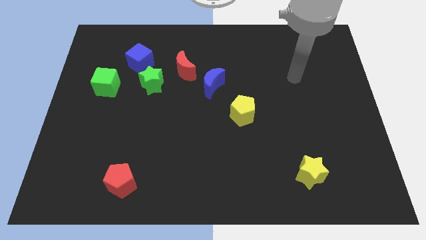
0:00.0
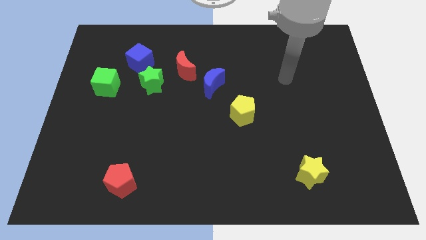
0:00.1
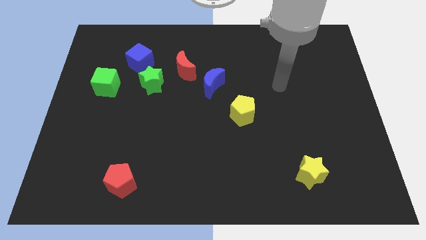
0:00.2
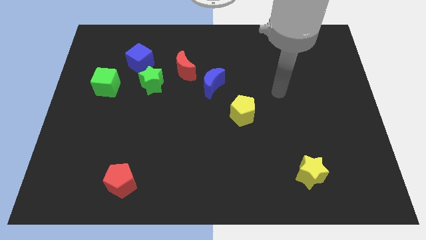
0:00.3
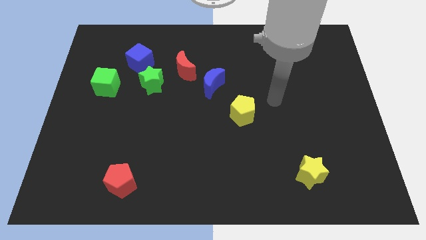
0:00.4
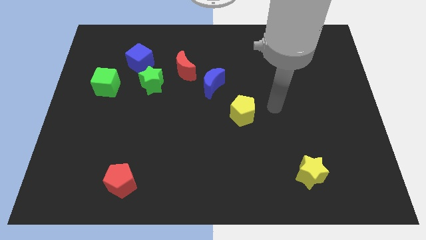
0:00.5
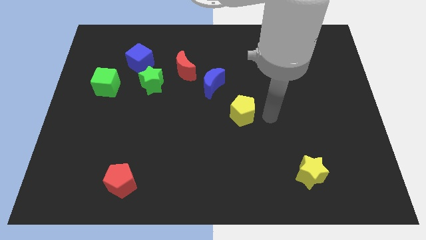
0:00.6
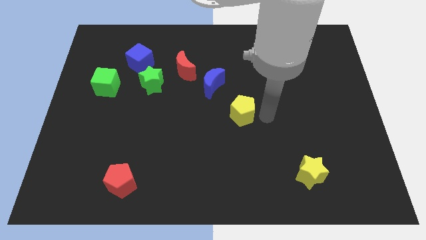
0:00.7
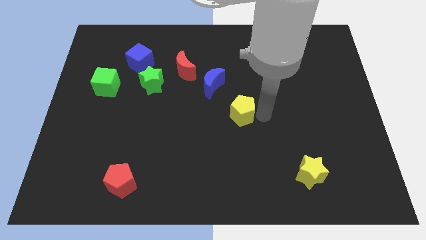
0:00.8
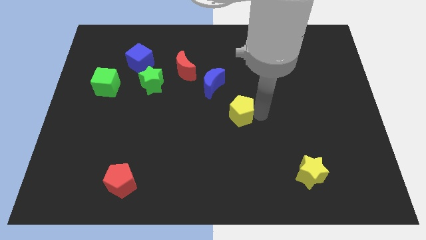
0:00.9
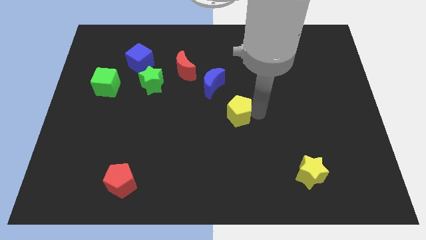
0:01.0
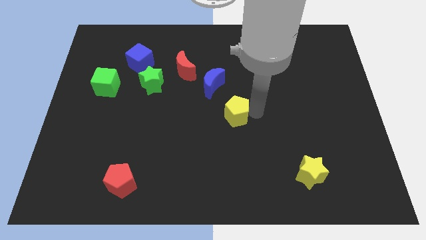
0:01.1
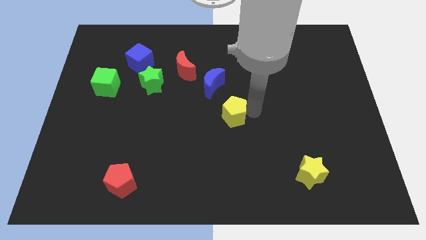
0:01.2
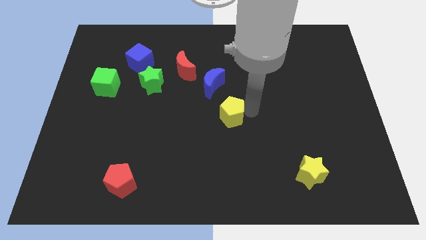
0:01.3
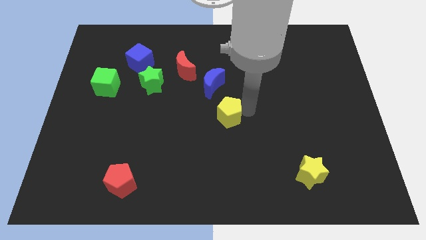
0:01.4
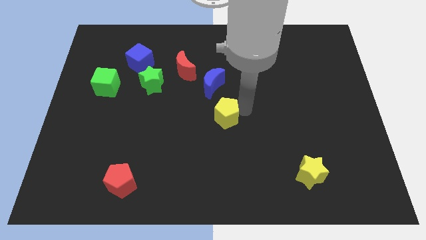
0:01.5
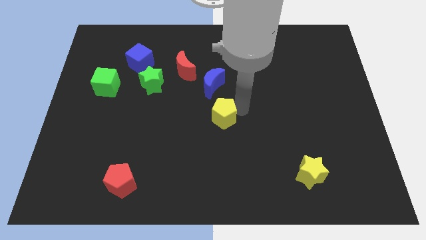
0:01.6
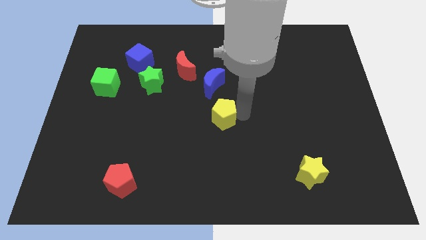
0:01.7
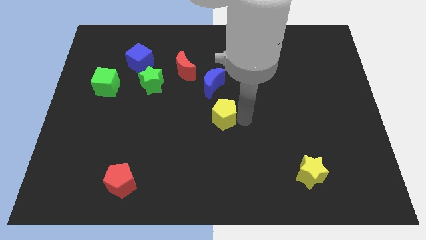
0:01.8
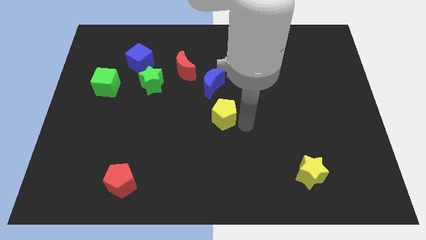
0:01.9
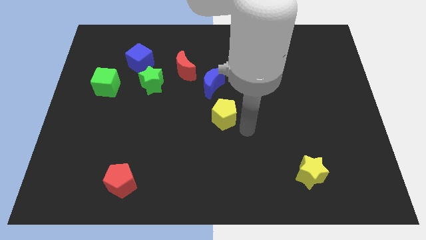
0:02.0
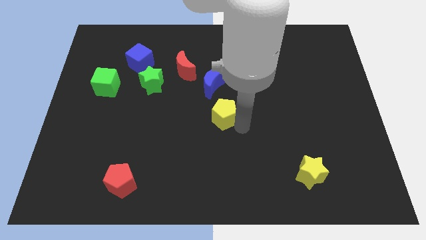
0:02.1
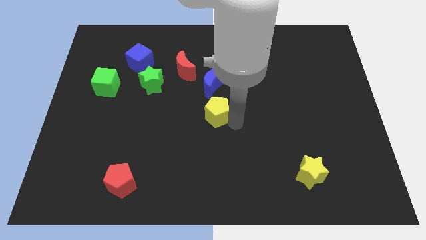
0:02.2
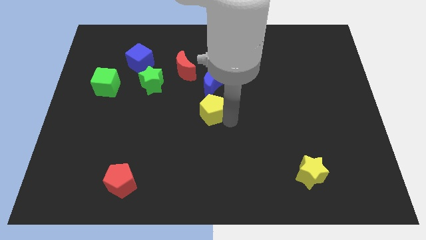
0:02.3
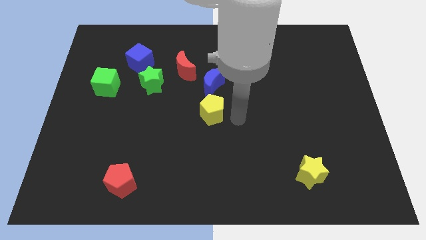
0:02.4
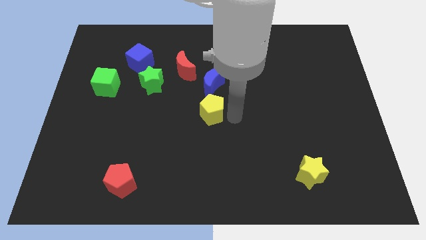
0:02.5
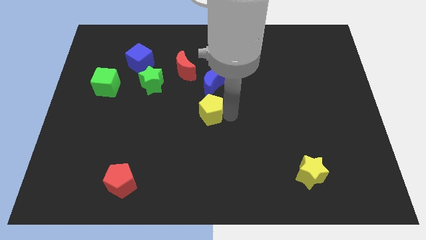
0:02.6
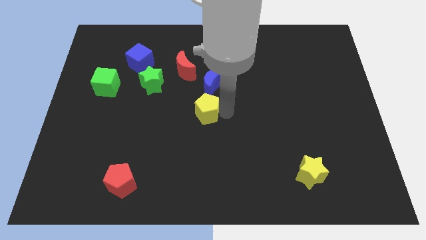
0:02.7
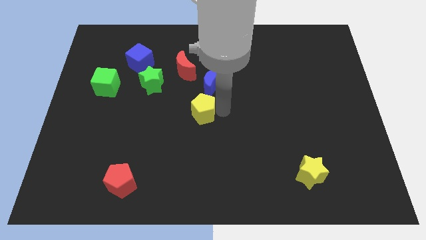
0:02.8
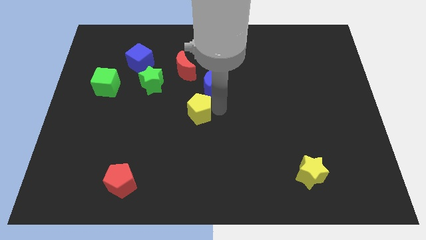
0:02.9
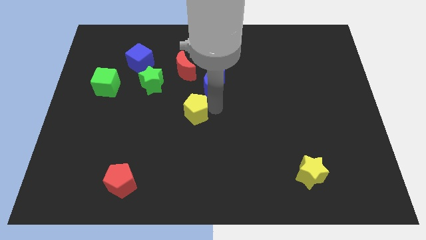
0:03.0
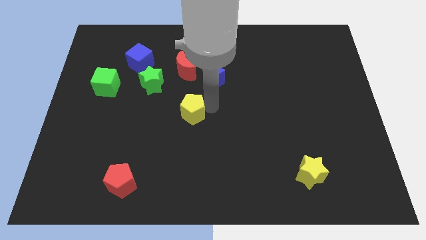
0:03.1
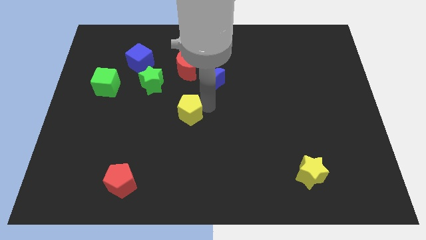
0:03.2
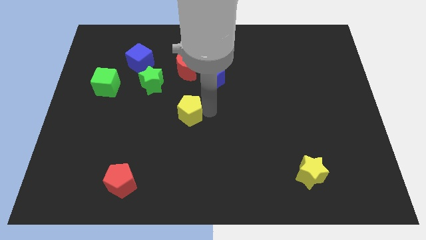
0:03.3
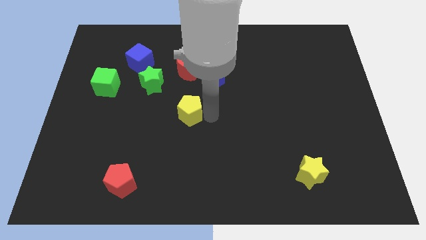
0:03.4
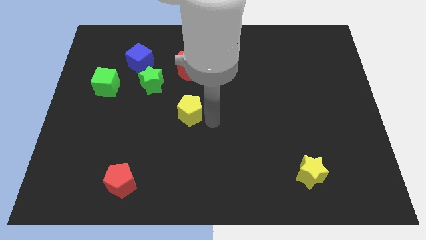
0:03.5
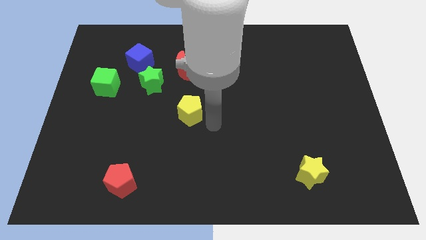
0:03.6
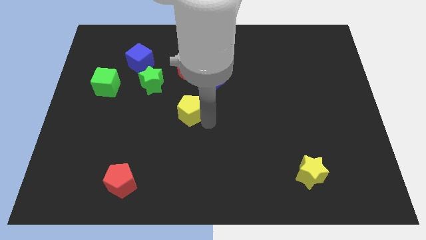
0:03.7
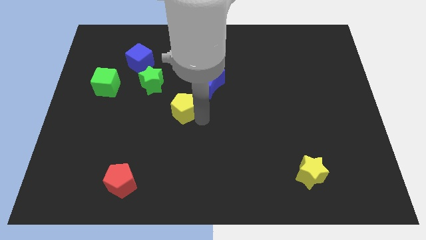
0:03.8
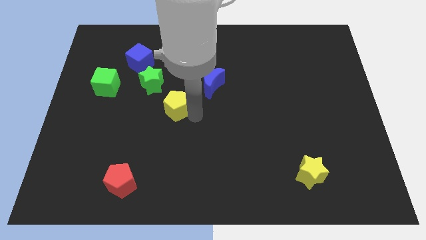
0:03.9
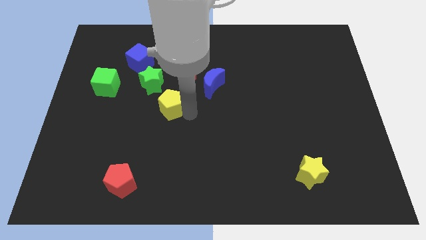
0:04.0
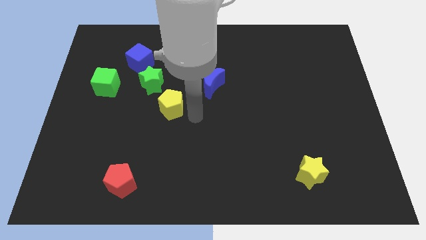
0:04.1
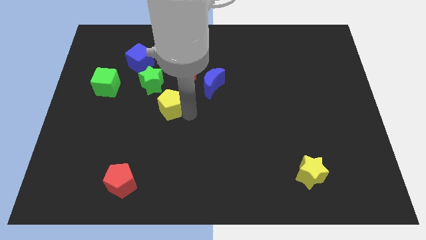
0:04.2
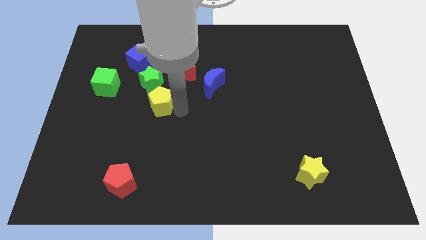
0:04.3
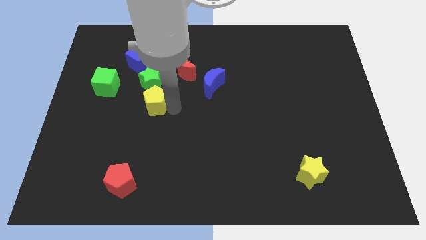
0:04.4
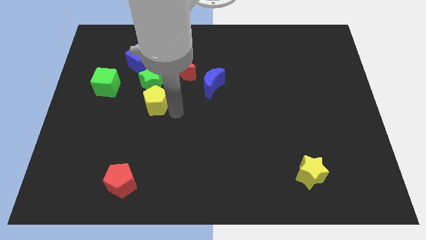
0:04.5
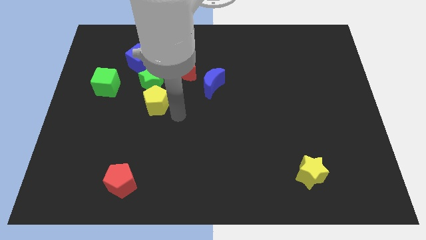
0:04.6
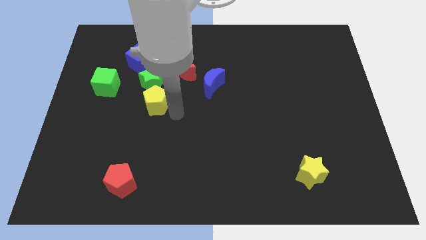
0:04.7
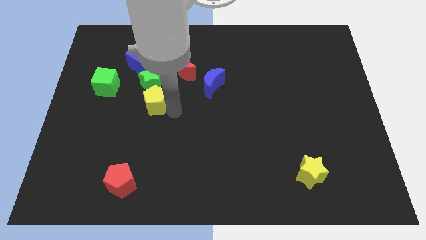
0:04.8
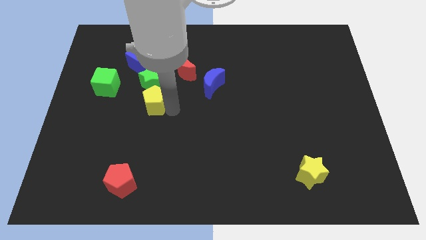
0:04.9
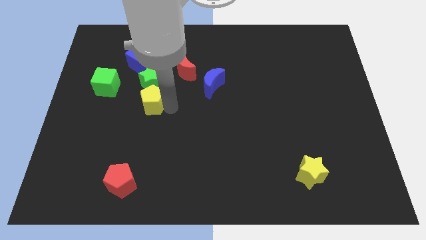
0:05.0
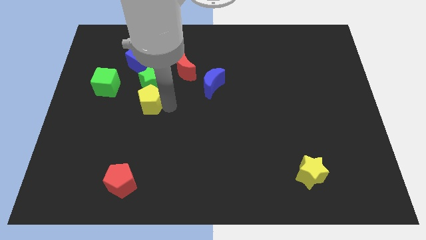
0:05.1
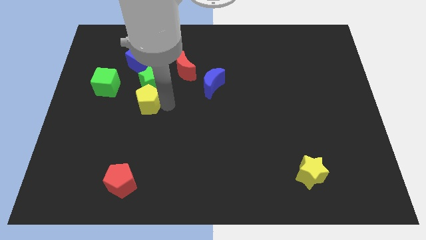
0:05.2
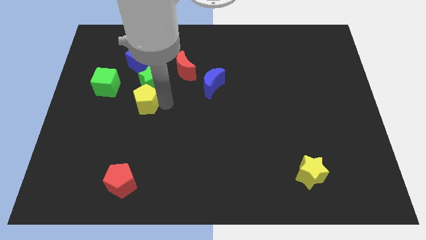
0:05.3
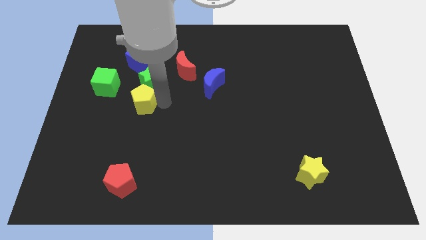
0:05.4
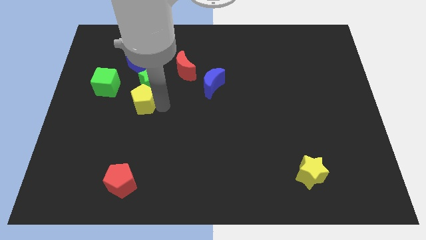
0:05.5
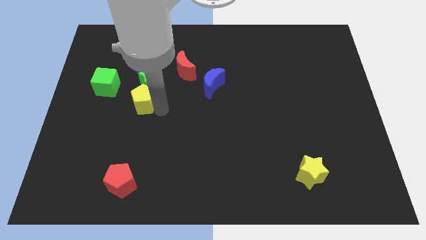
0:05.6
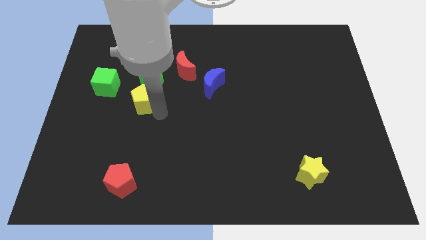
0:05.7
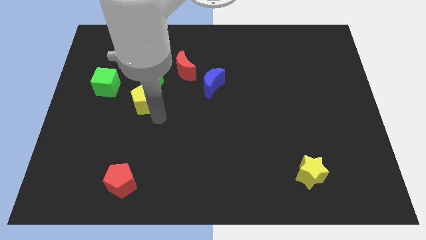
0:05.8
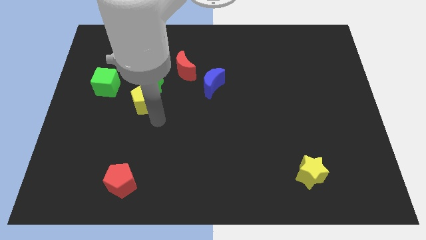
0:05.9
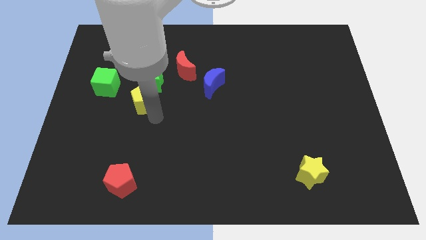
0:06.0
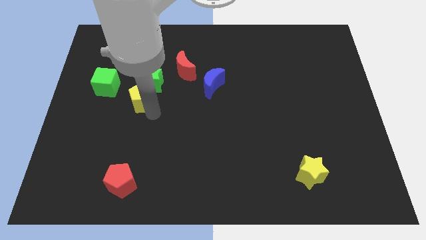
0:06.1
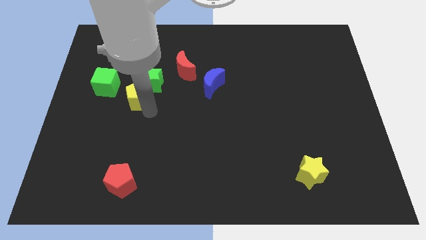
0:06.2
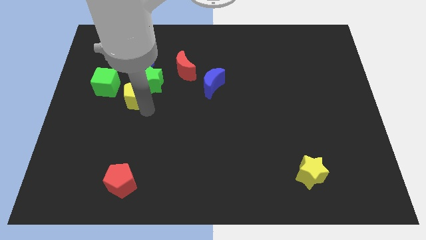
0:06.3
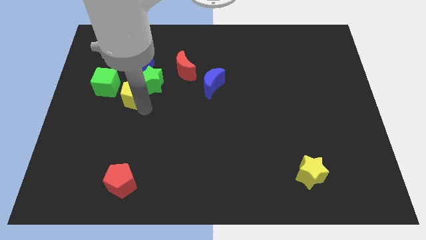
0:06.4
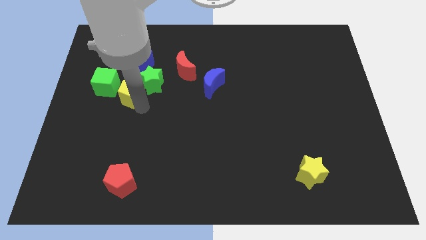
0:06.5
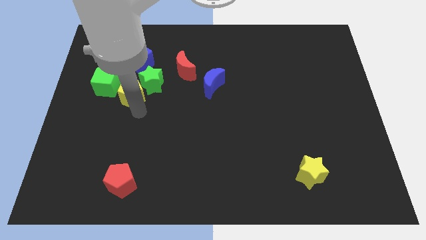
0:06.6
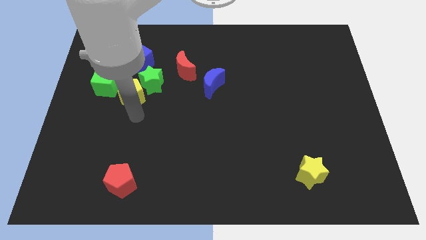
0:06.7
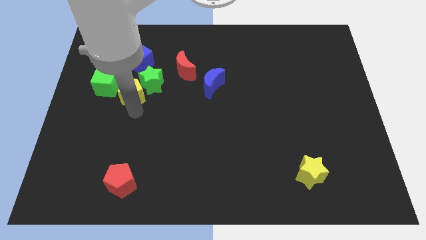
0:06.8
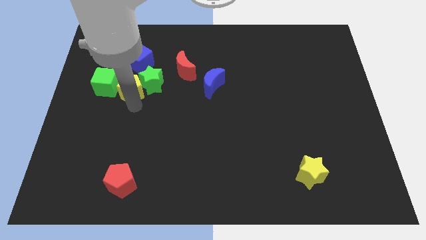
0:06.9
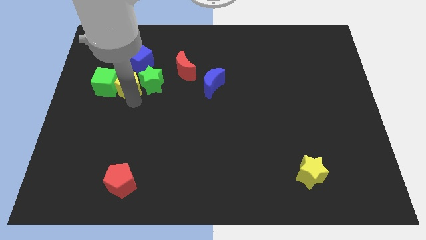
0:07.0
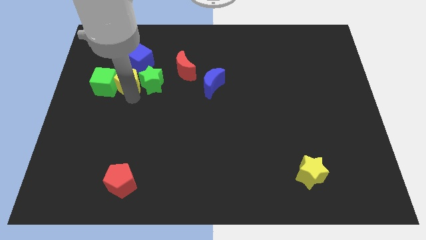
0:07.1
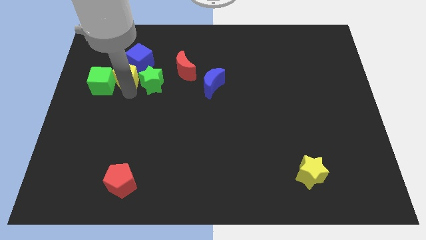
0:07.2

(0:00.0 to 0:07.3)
move the yellow pentagon left of the red moon
